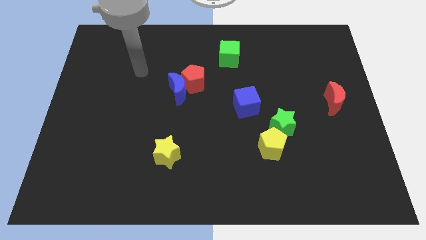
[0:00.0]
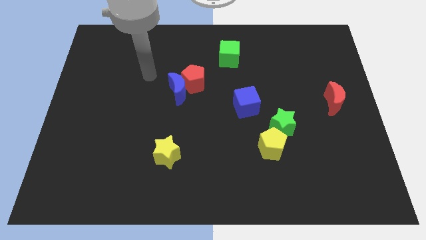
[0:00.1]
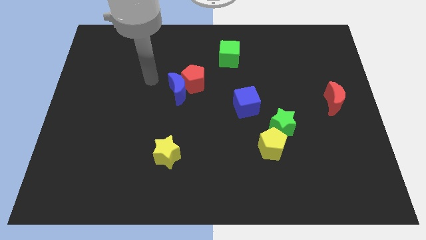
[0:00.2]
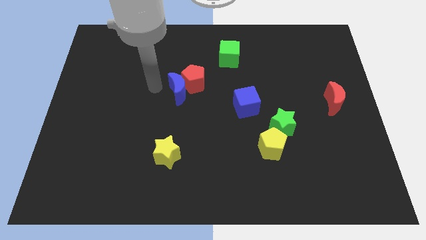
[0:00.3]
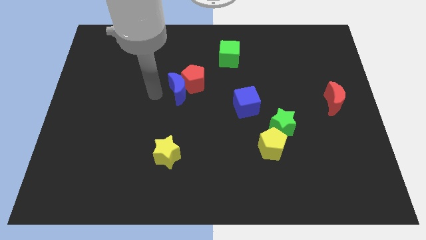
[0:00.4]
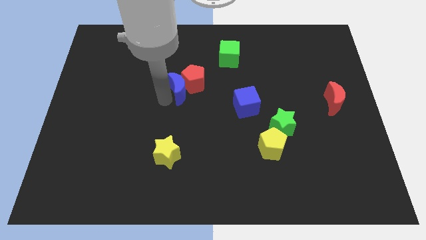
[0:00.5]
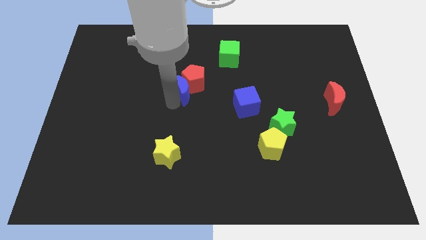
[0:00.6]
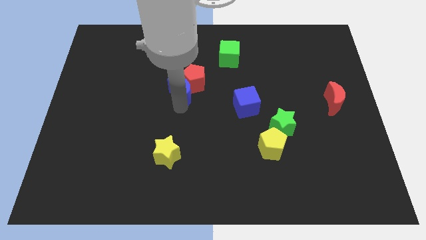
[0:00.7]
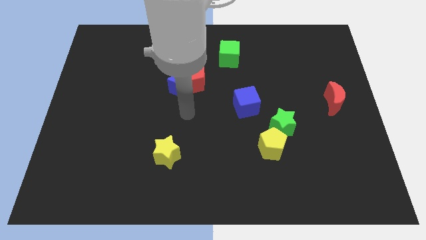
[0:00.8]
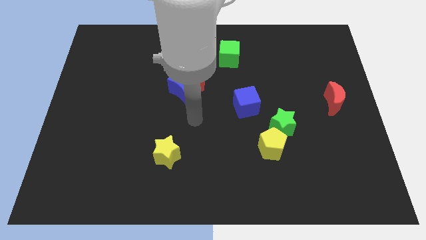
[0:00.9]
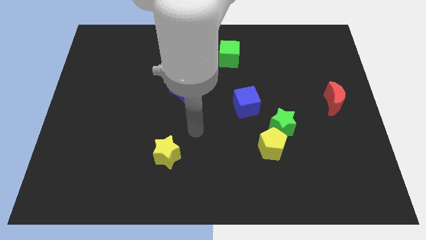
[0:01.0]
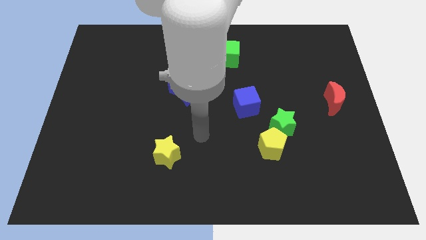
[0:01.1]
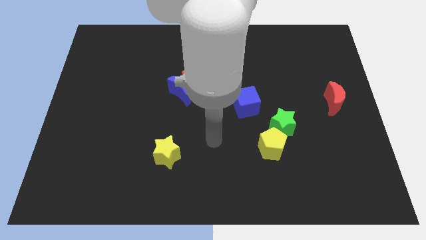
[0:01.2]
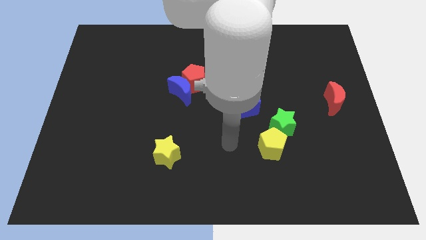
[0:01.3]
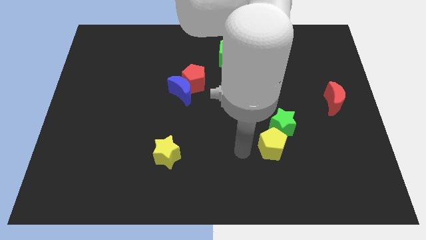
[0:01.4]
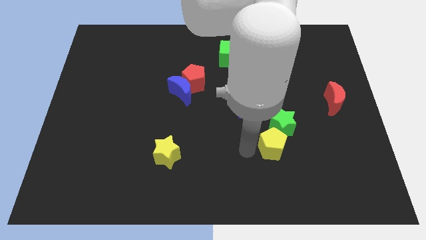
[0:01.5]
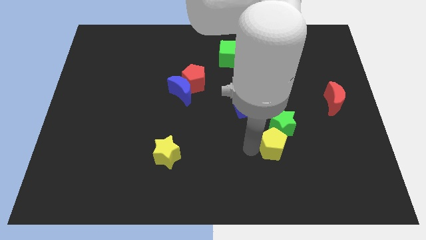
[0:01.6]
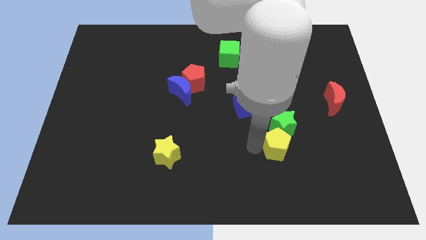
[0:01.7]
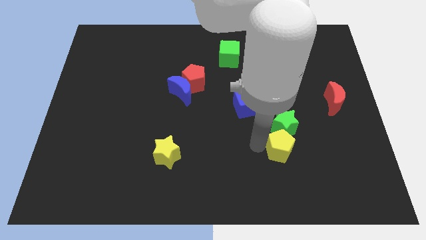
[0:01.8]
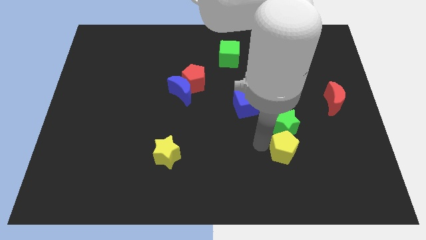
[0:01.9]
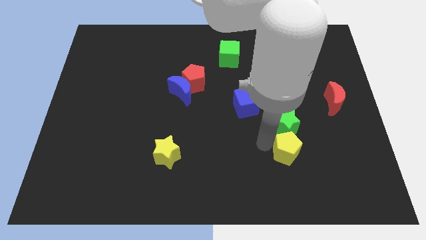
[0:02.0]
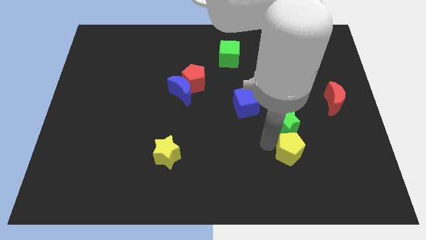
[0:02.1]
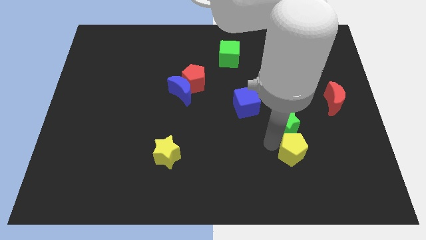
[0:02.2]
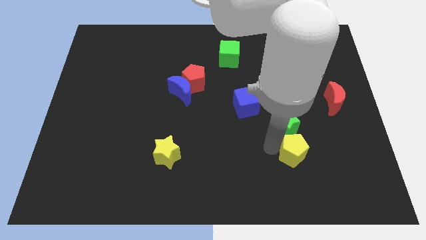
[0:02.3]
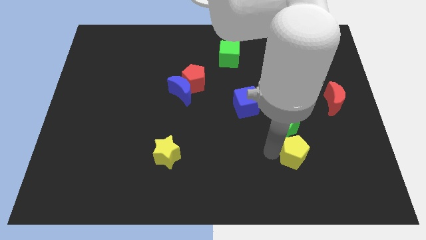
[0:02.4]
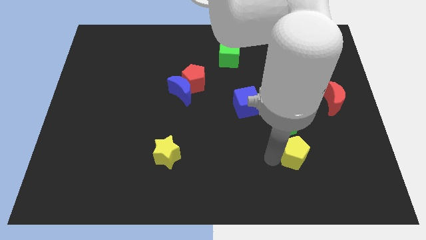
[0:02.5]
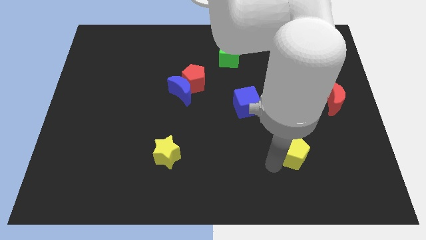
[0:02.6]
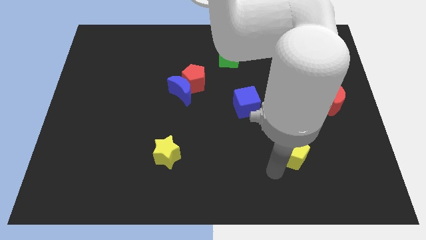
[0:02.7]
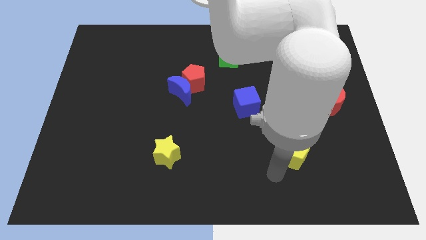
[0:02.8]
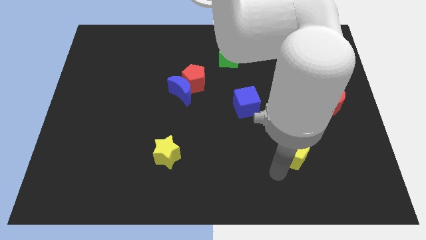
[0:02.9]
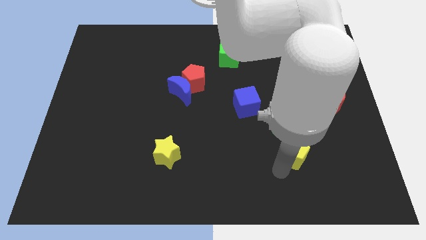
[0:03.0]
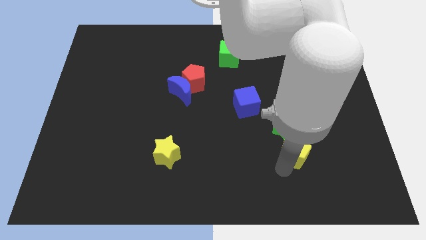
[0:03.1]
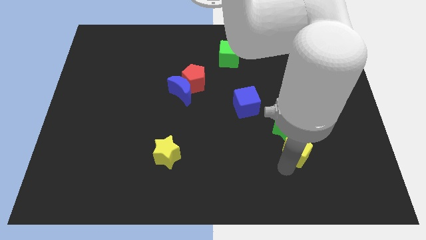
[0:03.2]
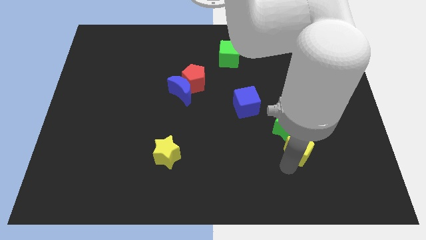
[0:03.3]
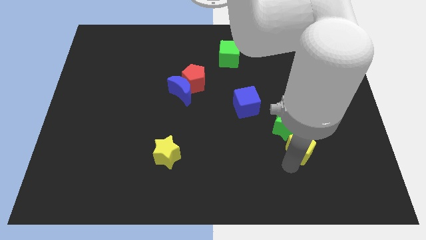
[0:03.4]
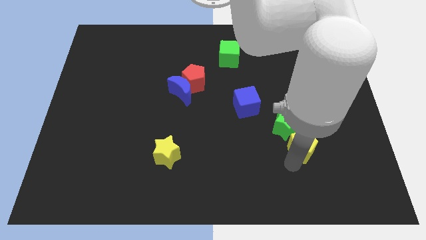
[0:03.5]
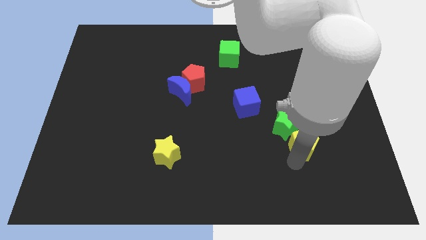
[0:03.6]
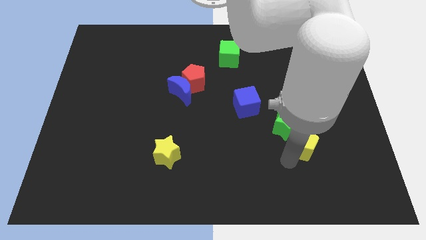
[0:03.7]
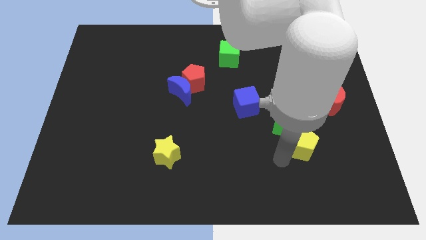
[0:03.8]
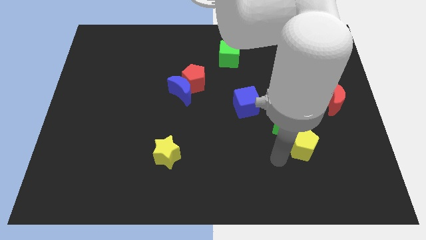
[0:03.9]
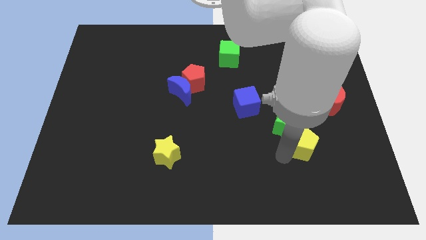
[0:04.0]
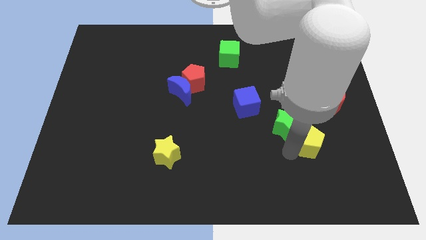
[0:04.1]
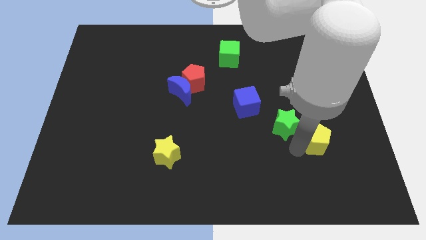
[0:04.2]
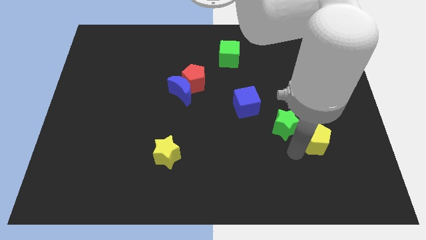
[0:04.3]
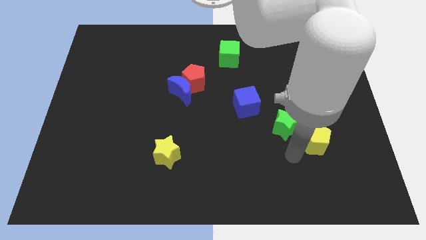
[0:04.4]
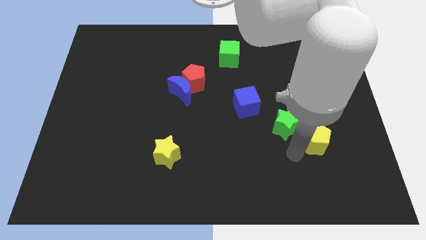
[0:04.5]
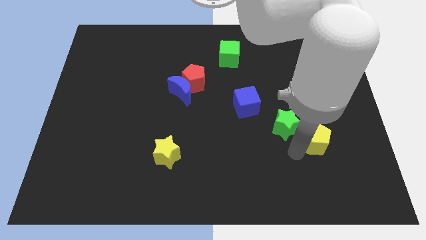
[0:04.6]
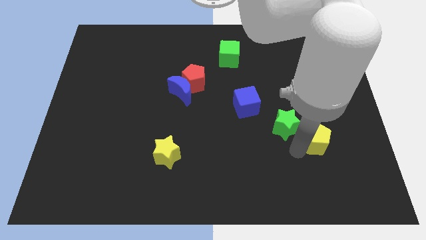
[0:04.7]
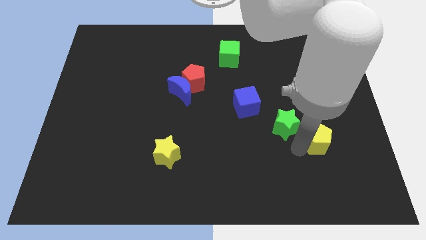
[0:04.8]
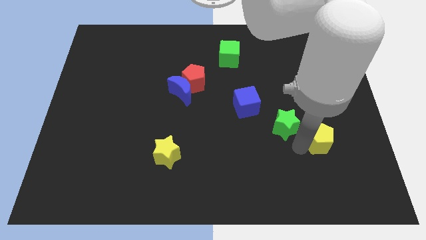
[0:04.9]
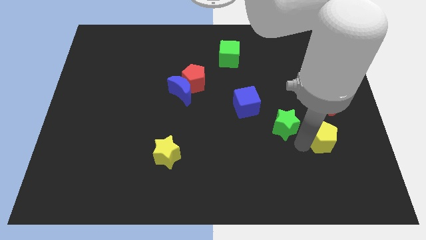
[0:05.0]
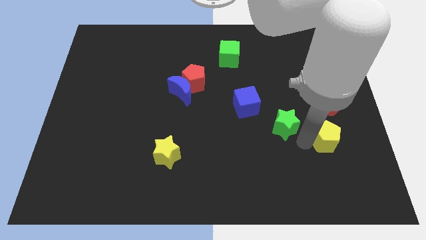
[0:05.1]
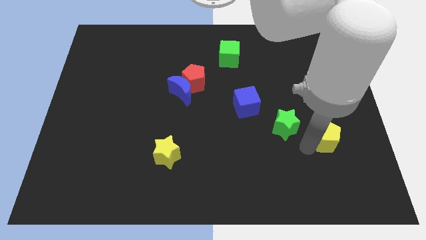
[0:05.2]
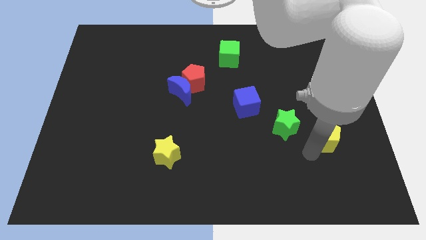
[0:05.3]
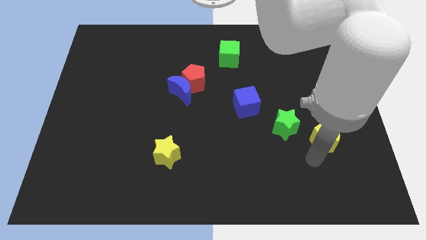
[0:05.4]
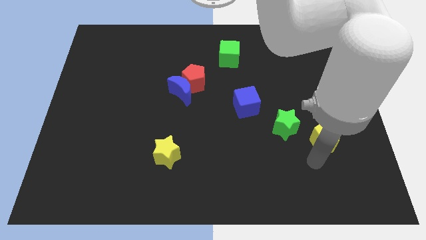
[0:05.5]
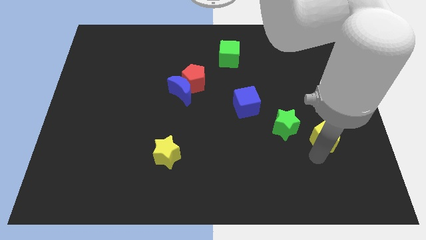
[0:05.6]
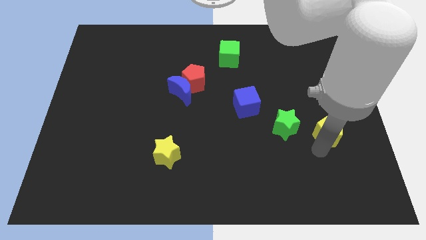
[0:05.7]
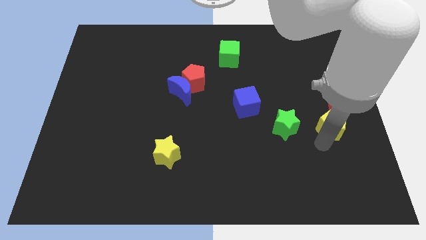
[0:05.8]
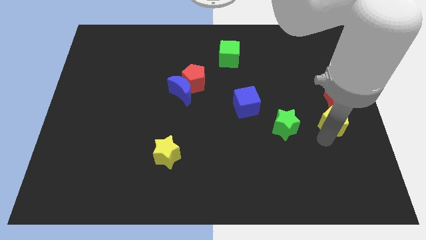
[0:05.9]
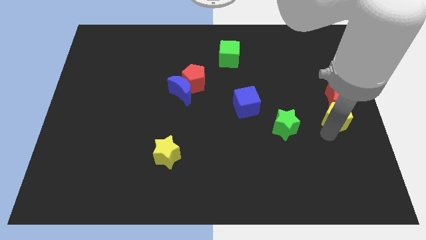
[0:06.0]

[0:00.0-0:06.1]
push the yellow pentagon to the red moon

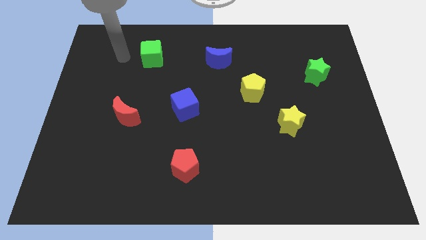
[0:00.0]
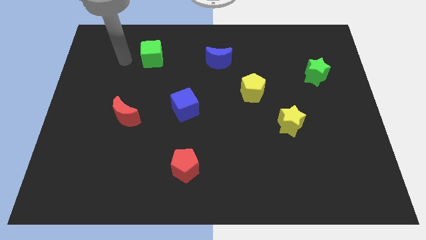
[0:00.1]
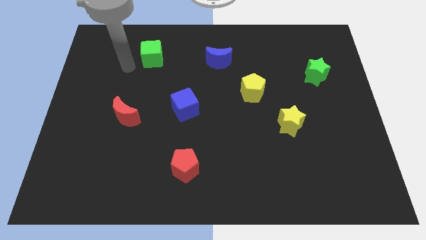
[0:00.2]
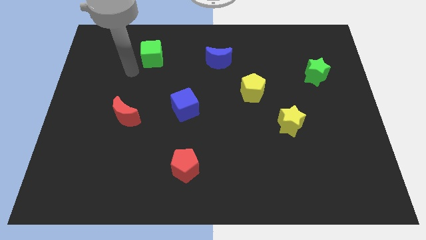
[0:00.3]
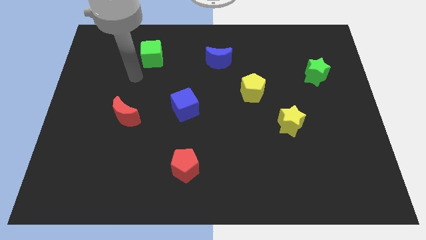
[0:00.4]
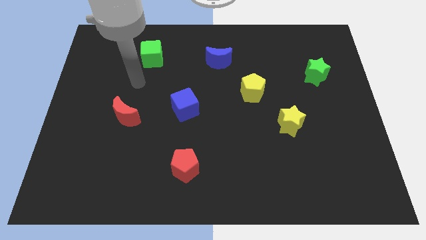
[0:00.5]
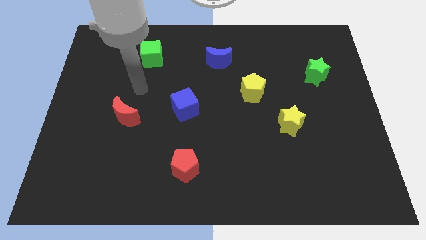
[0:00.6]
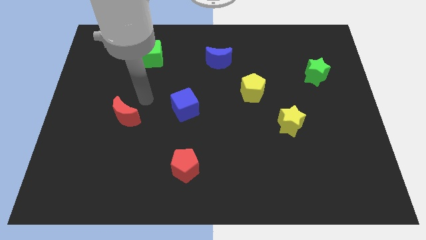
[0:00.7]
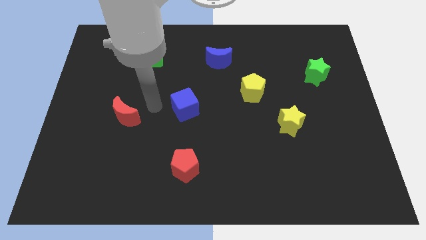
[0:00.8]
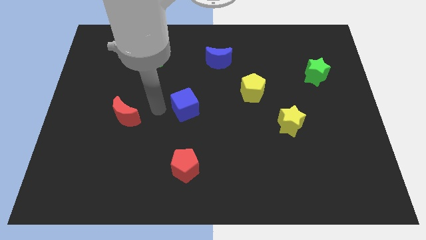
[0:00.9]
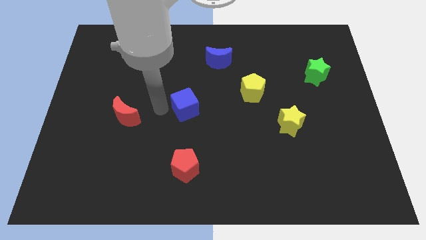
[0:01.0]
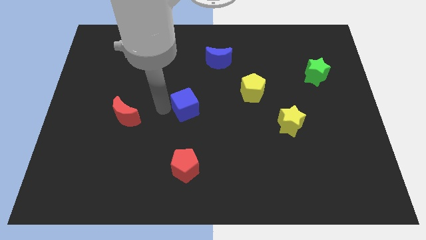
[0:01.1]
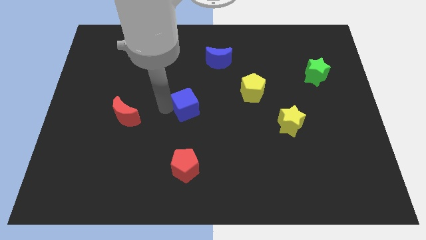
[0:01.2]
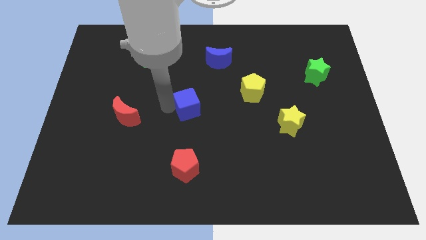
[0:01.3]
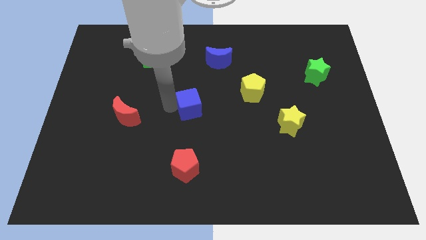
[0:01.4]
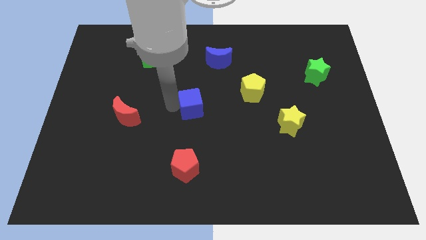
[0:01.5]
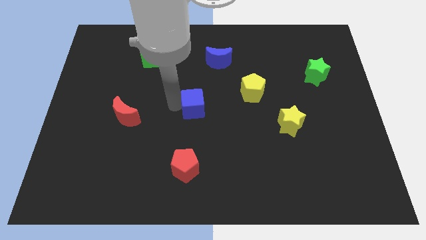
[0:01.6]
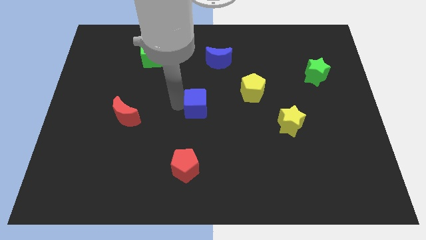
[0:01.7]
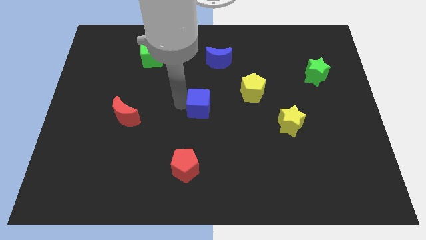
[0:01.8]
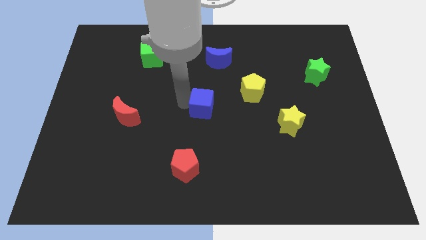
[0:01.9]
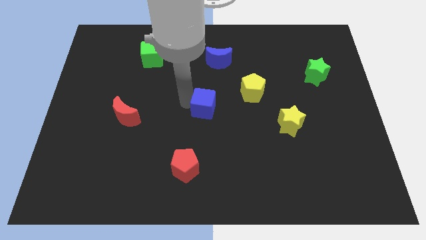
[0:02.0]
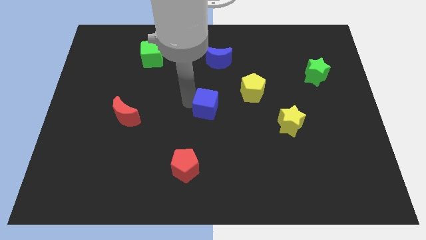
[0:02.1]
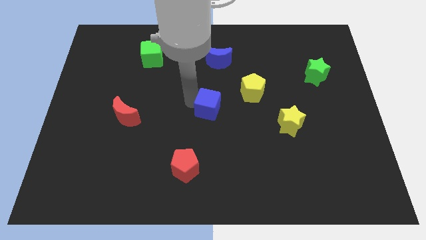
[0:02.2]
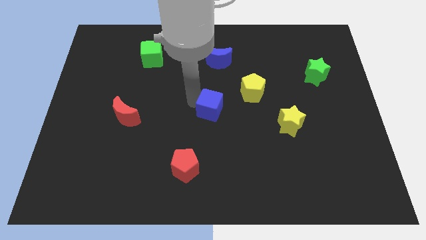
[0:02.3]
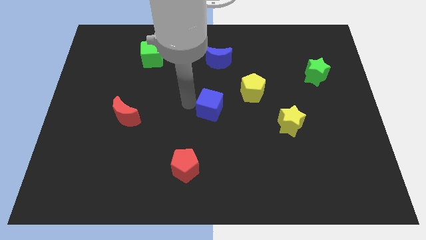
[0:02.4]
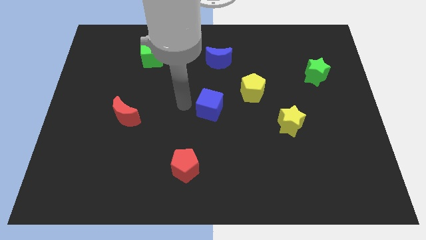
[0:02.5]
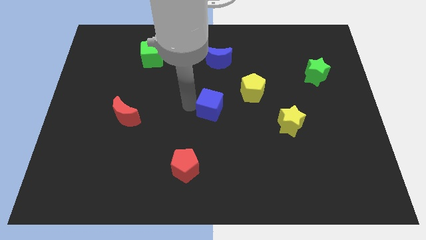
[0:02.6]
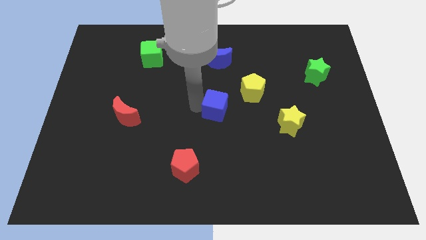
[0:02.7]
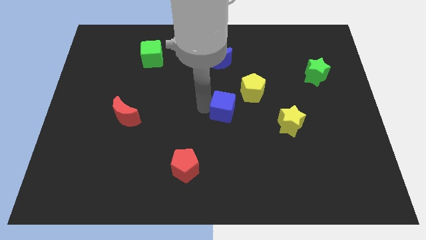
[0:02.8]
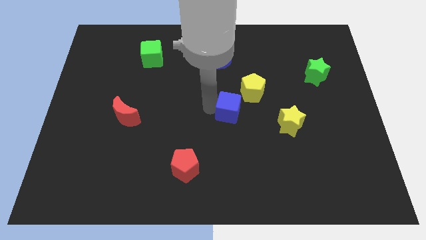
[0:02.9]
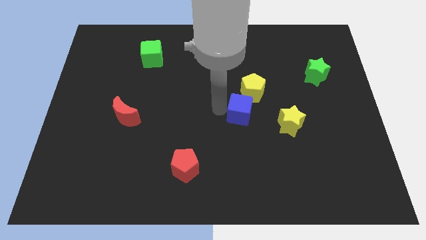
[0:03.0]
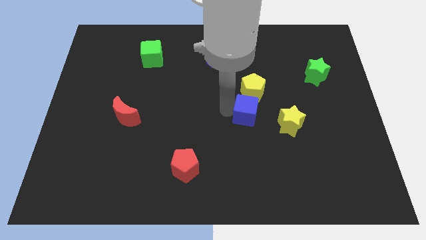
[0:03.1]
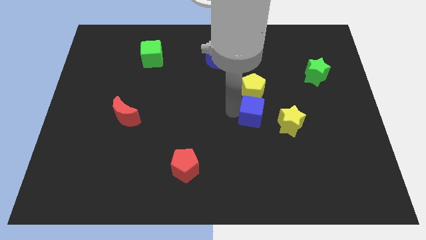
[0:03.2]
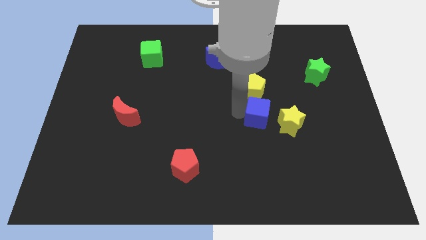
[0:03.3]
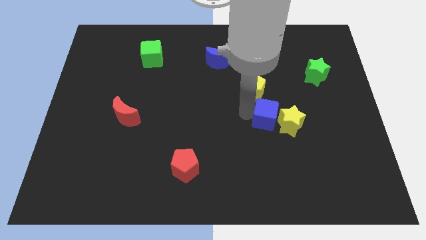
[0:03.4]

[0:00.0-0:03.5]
put the blue cube next to the yellow star
